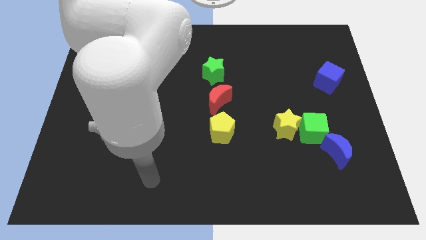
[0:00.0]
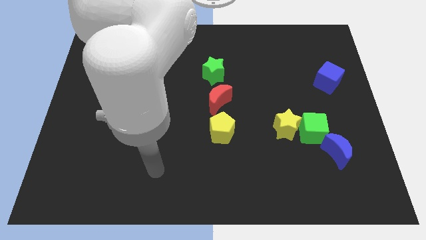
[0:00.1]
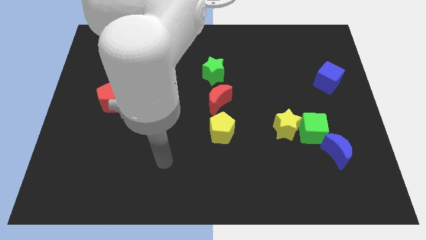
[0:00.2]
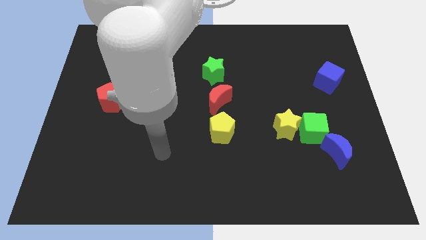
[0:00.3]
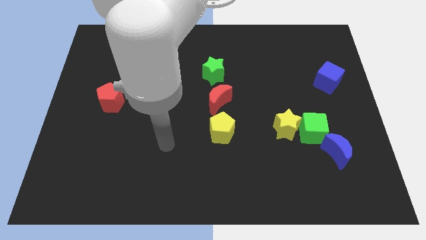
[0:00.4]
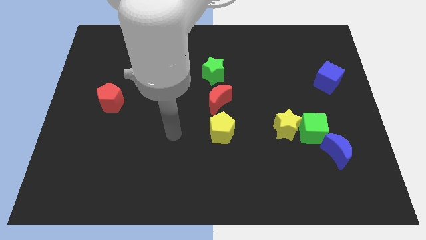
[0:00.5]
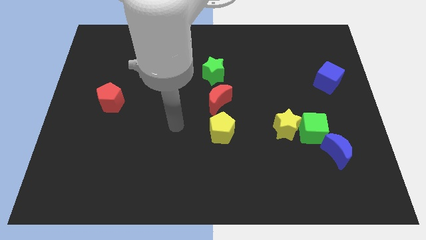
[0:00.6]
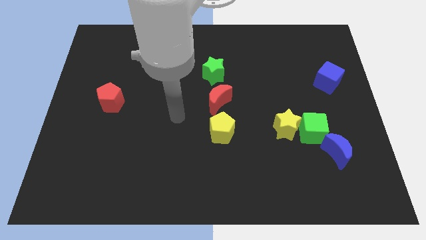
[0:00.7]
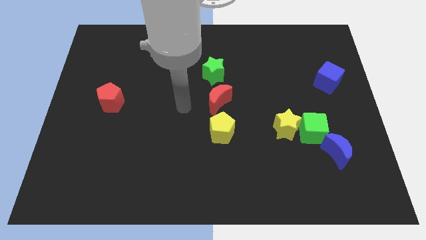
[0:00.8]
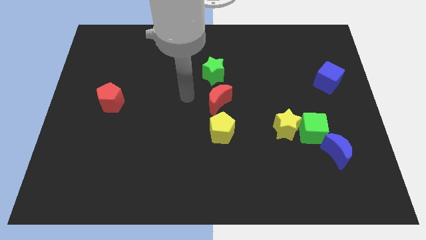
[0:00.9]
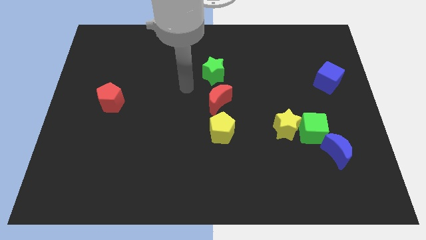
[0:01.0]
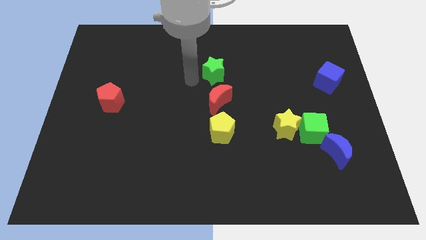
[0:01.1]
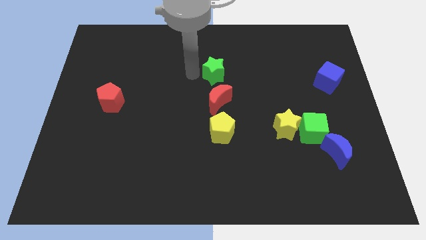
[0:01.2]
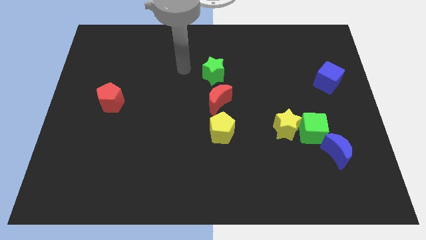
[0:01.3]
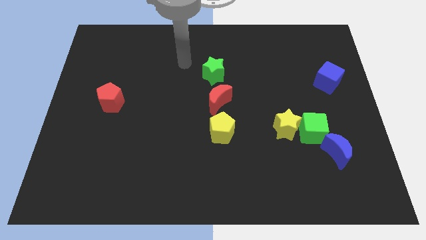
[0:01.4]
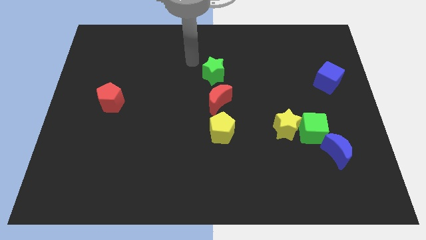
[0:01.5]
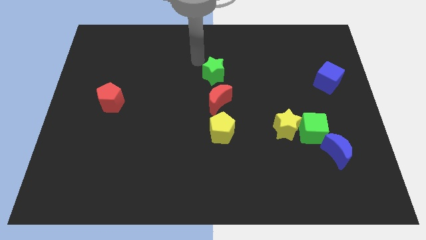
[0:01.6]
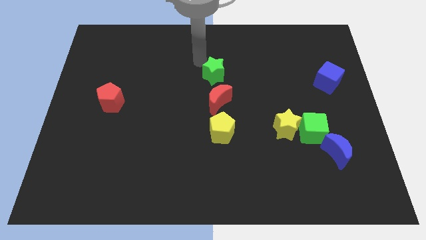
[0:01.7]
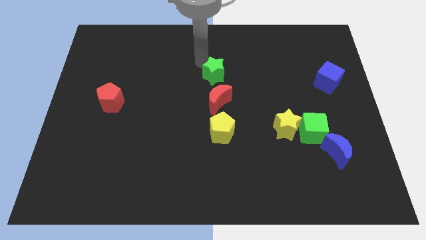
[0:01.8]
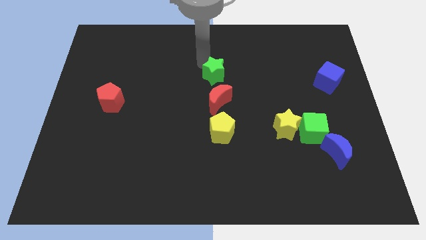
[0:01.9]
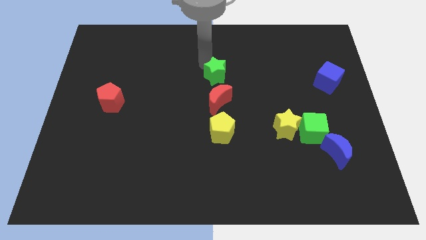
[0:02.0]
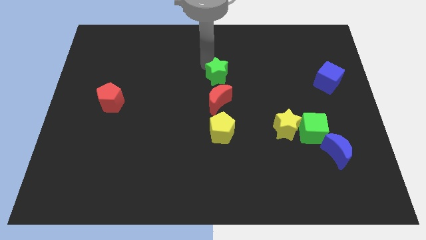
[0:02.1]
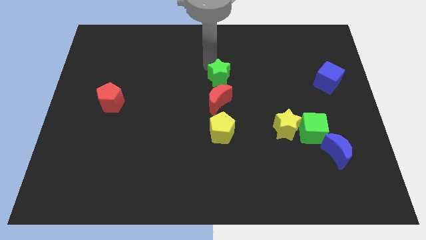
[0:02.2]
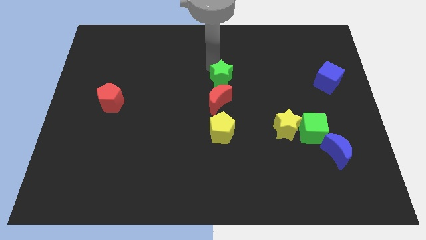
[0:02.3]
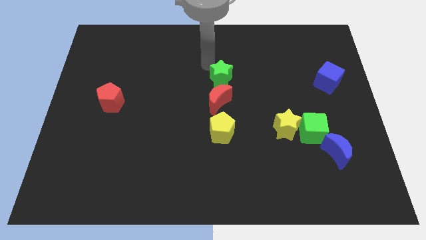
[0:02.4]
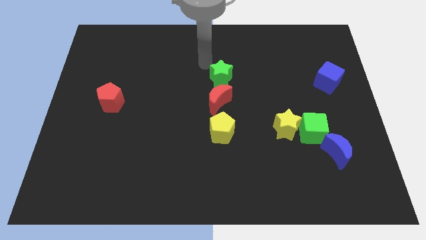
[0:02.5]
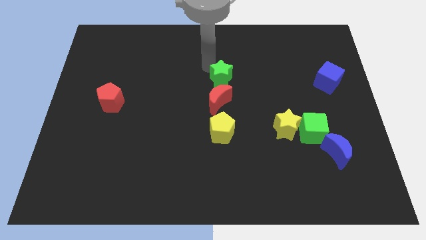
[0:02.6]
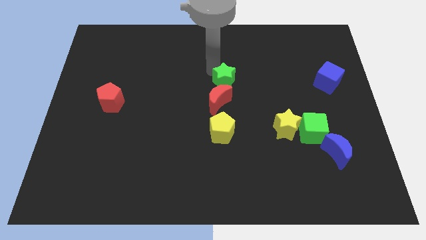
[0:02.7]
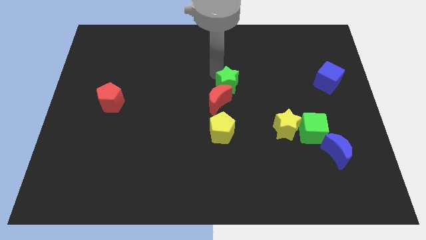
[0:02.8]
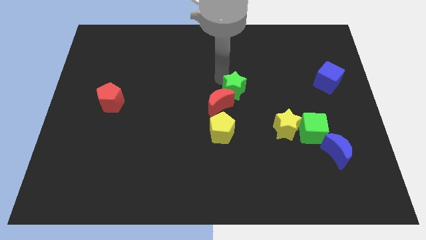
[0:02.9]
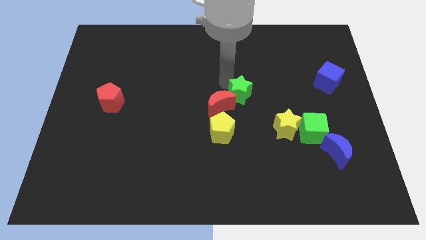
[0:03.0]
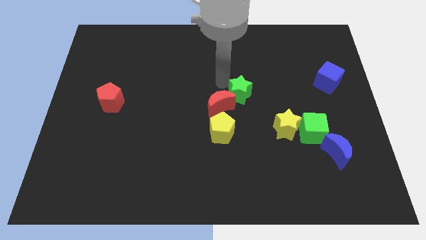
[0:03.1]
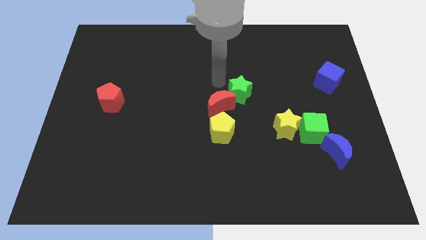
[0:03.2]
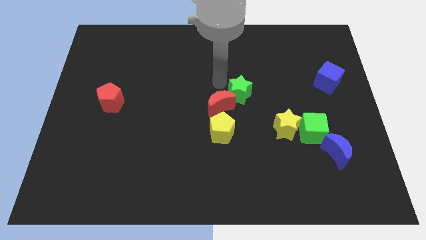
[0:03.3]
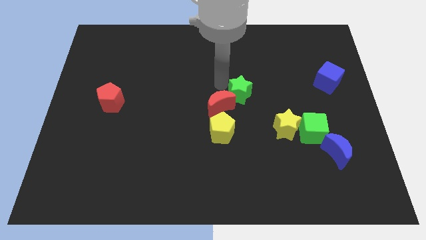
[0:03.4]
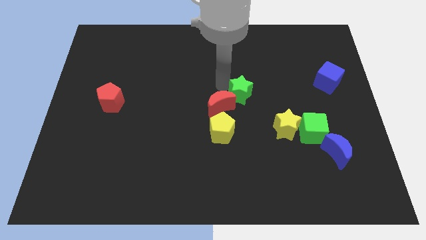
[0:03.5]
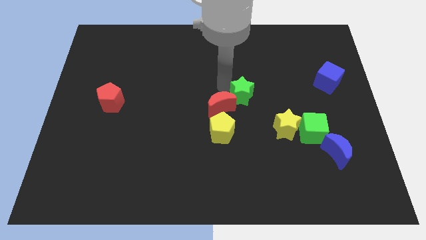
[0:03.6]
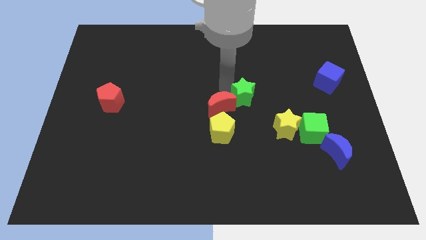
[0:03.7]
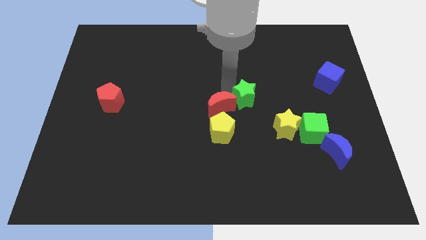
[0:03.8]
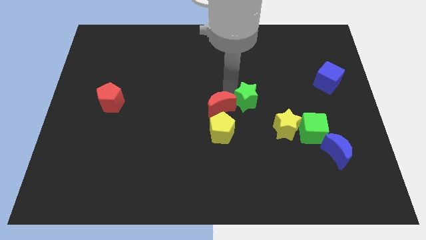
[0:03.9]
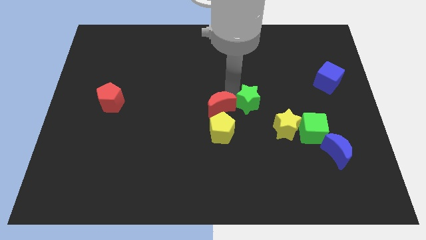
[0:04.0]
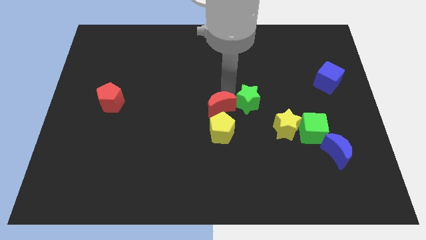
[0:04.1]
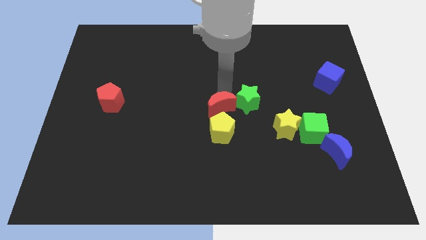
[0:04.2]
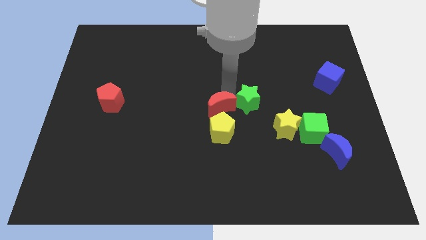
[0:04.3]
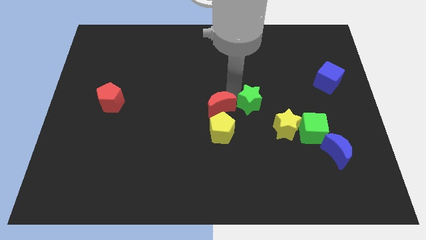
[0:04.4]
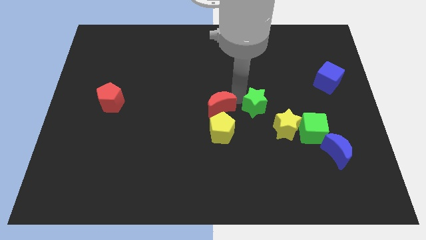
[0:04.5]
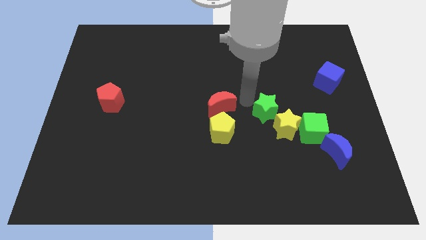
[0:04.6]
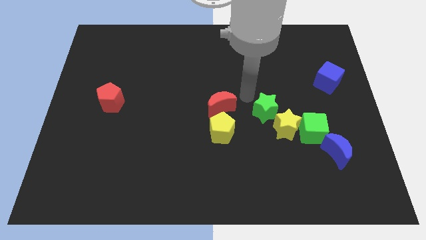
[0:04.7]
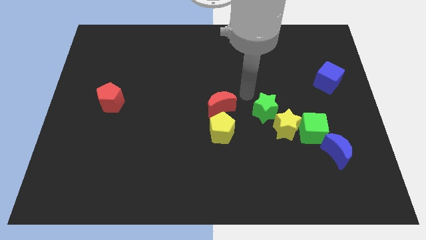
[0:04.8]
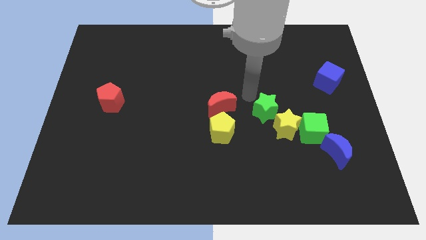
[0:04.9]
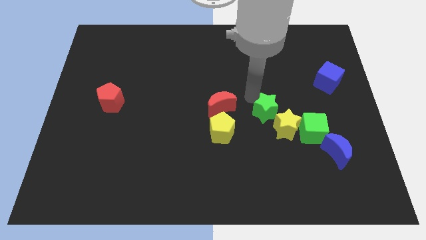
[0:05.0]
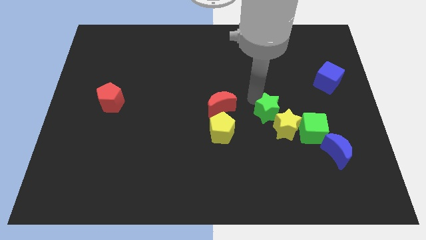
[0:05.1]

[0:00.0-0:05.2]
slide the green star to the yellow star

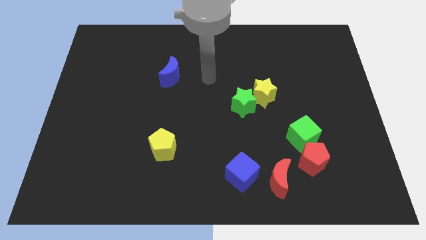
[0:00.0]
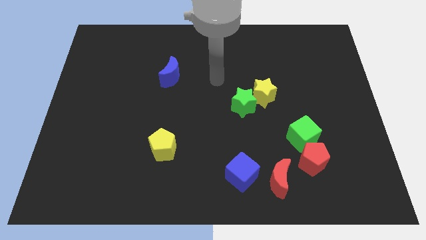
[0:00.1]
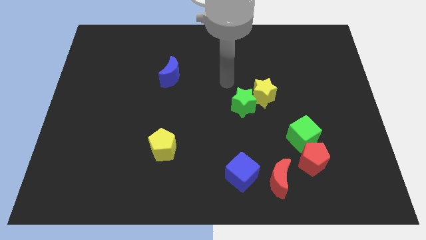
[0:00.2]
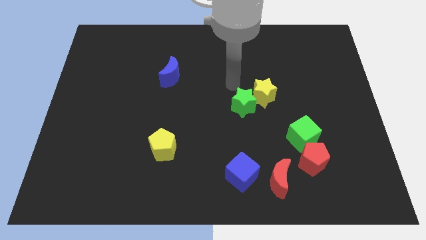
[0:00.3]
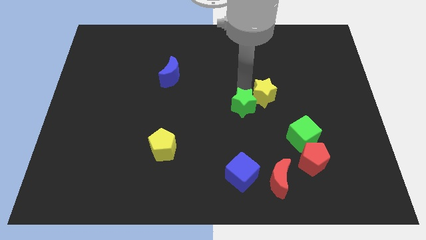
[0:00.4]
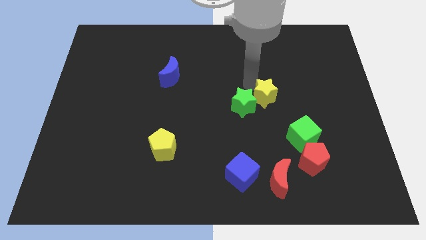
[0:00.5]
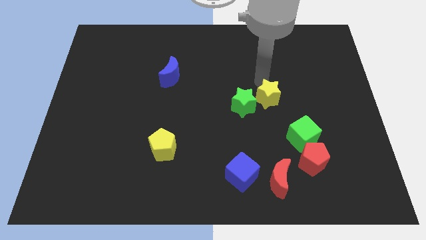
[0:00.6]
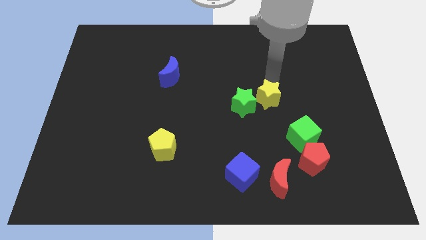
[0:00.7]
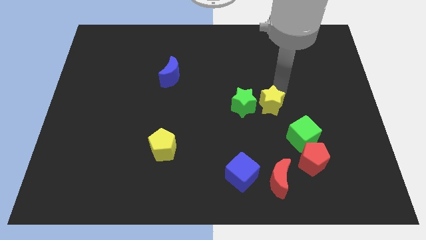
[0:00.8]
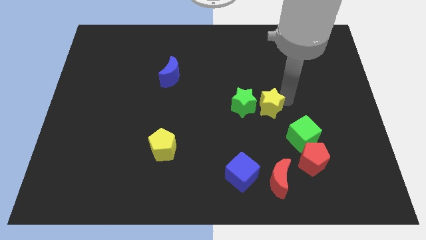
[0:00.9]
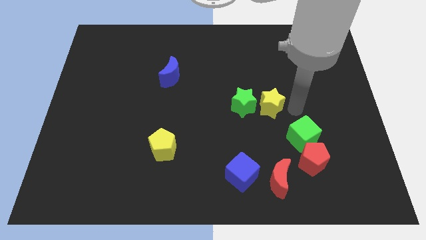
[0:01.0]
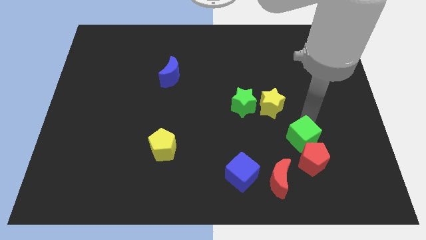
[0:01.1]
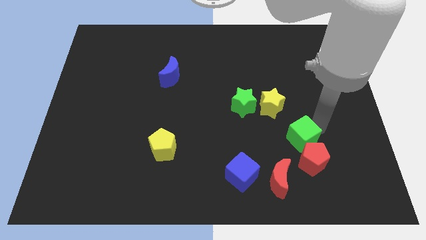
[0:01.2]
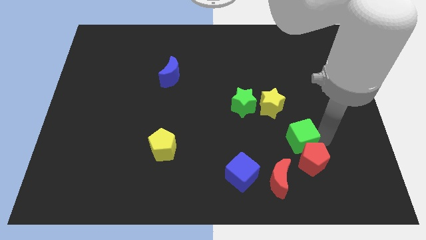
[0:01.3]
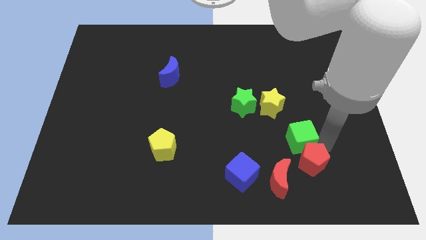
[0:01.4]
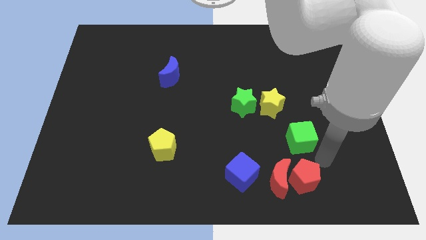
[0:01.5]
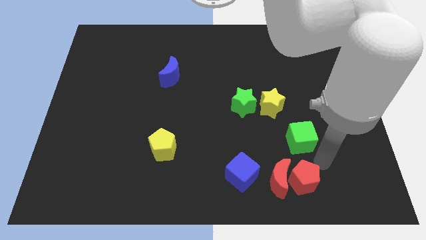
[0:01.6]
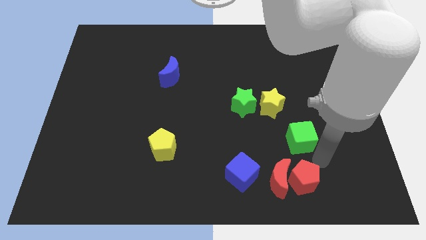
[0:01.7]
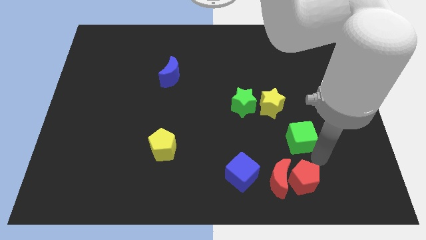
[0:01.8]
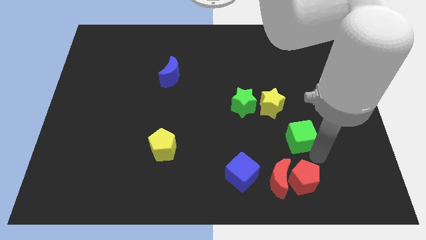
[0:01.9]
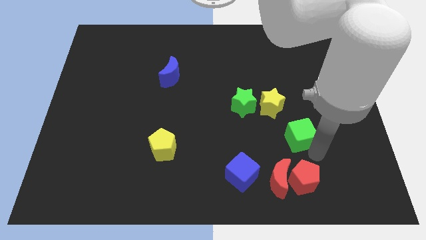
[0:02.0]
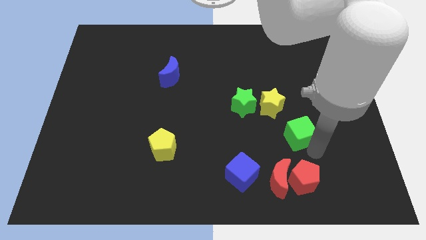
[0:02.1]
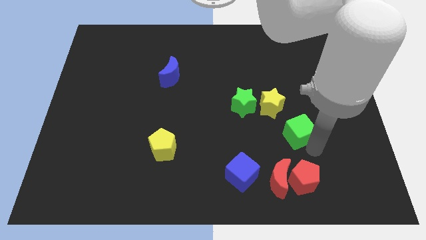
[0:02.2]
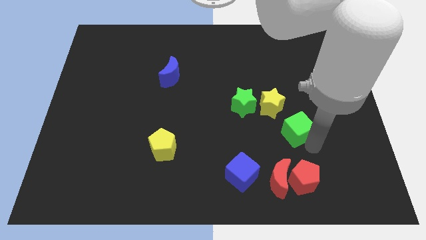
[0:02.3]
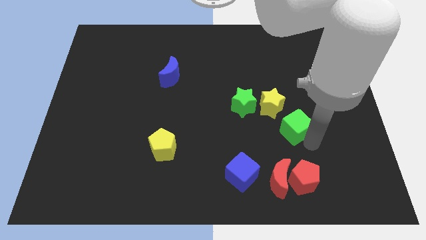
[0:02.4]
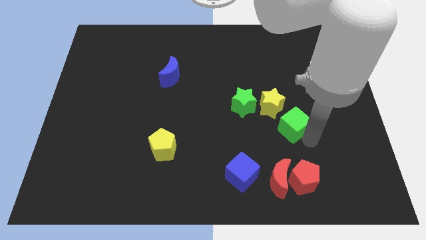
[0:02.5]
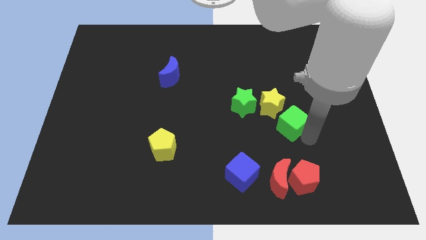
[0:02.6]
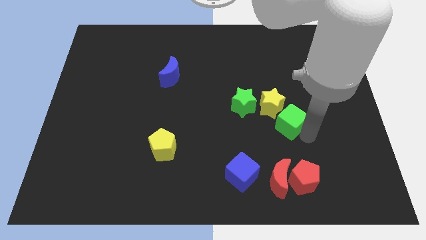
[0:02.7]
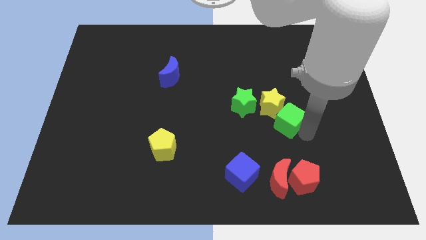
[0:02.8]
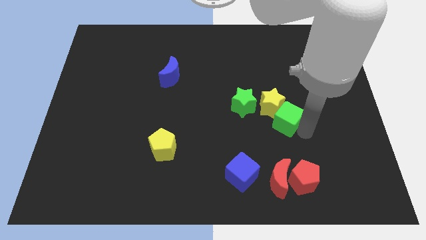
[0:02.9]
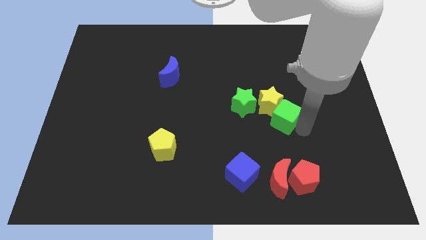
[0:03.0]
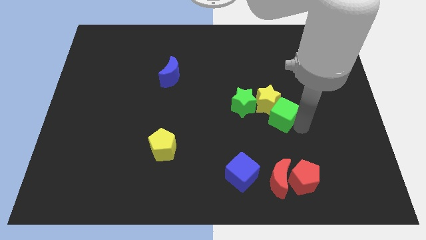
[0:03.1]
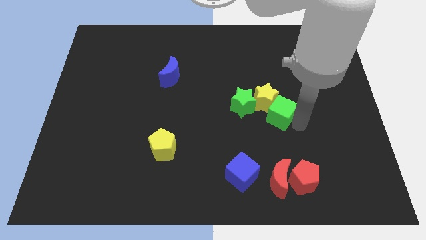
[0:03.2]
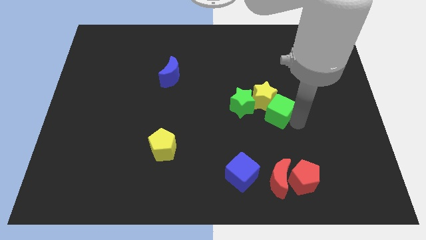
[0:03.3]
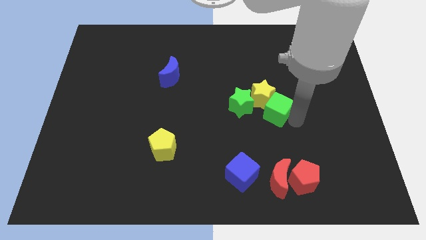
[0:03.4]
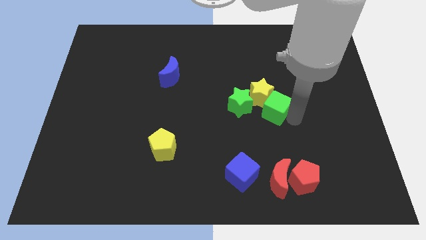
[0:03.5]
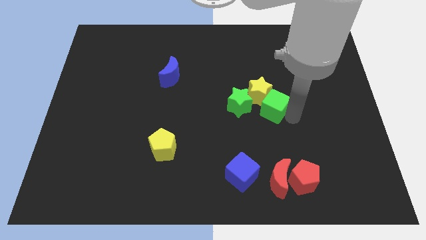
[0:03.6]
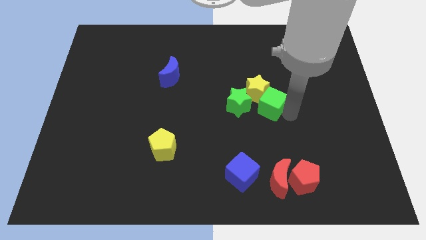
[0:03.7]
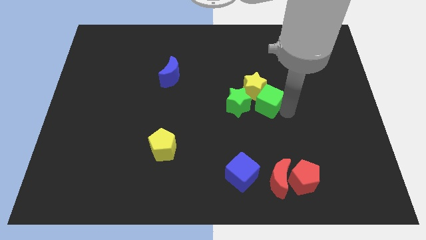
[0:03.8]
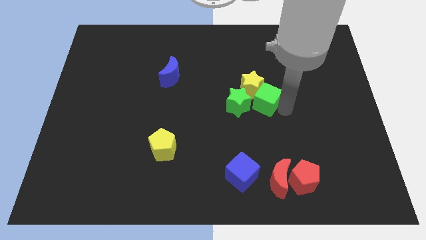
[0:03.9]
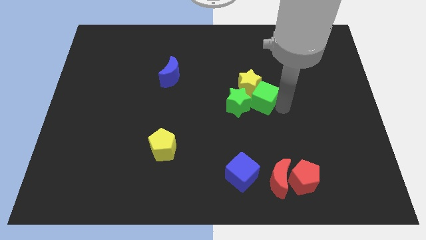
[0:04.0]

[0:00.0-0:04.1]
move the green cube next to the green star
